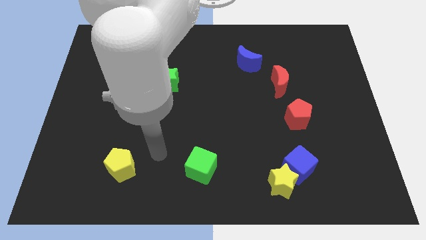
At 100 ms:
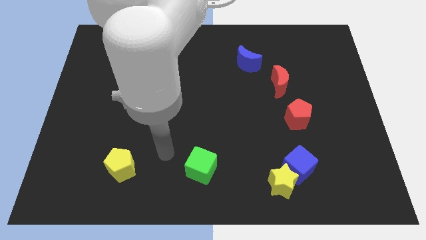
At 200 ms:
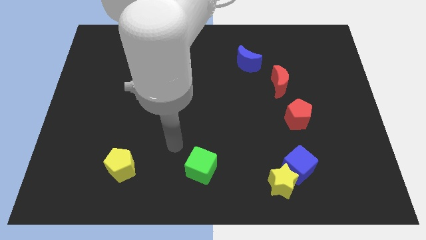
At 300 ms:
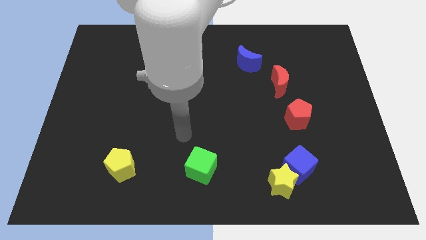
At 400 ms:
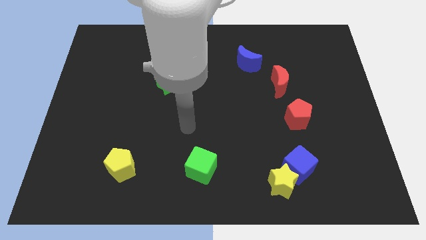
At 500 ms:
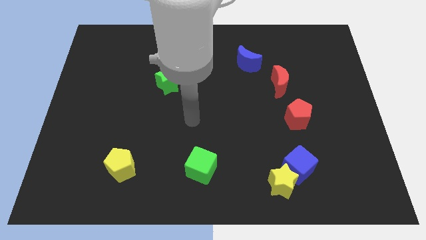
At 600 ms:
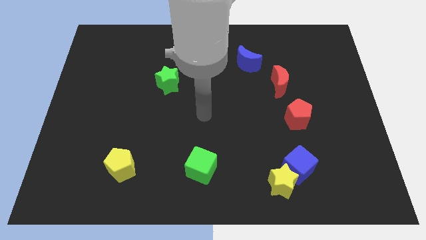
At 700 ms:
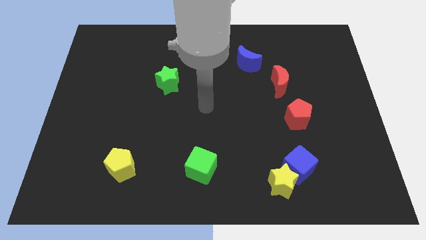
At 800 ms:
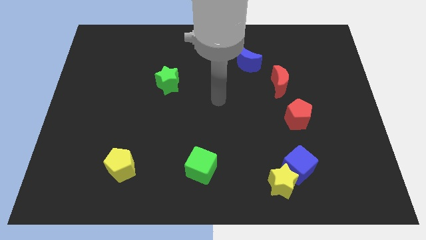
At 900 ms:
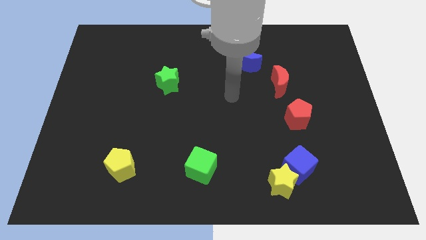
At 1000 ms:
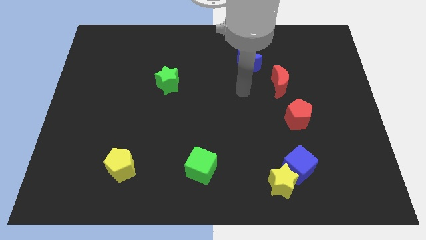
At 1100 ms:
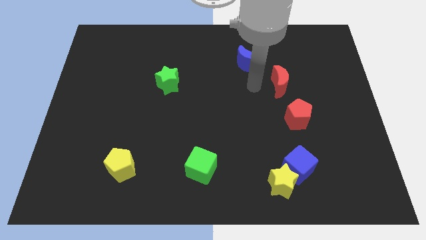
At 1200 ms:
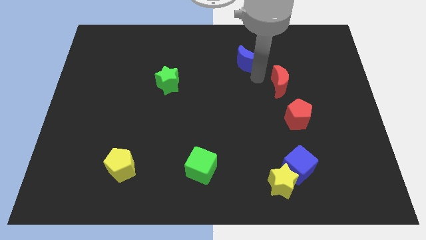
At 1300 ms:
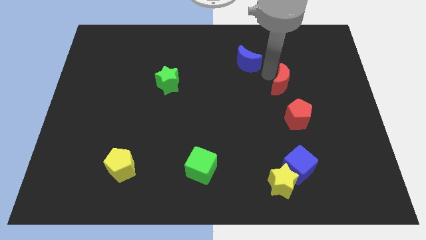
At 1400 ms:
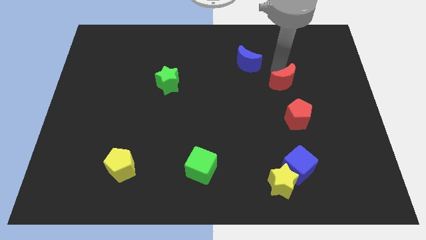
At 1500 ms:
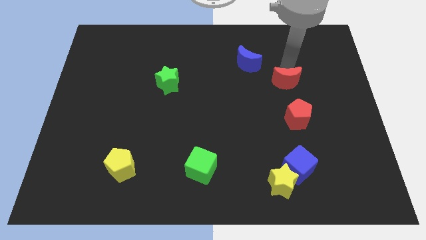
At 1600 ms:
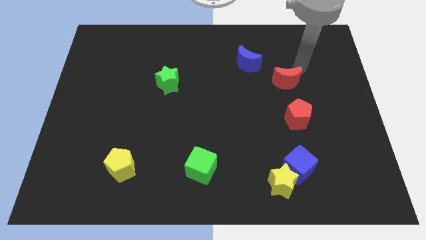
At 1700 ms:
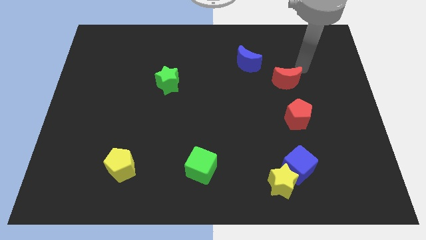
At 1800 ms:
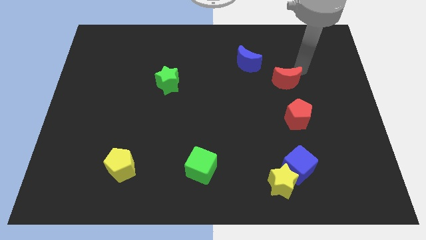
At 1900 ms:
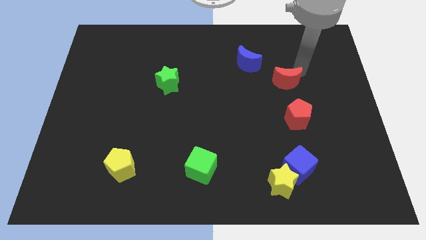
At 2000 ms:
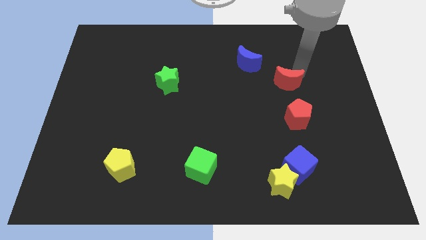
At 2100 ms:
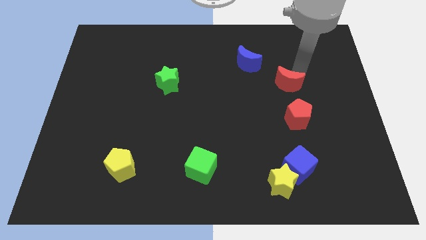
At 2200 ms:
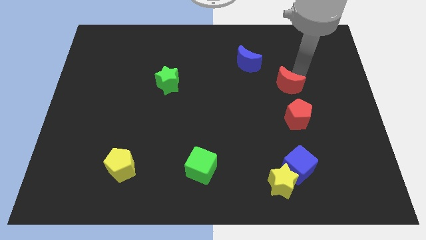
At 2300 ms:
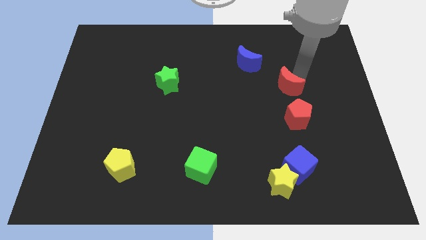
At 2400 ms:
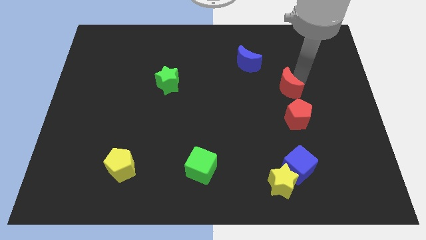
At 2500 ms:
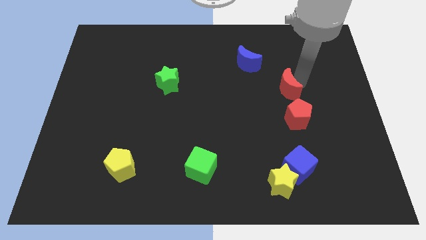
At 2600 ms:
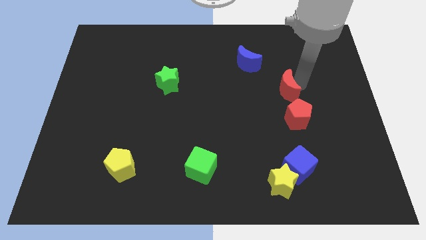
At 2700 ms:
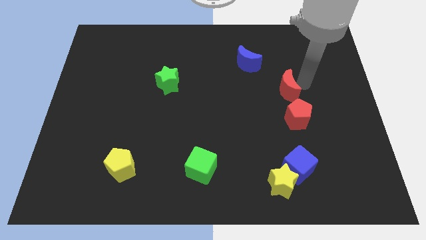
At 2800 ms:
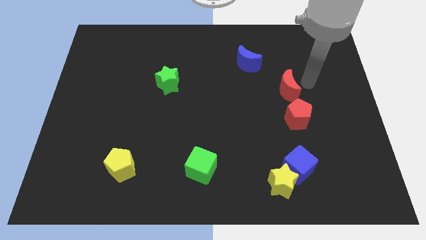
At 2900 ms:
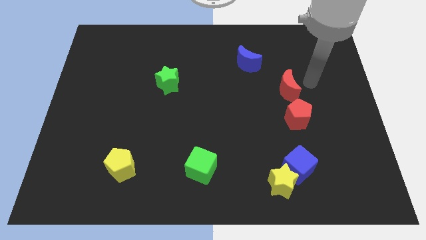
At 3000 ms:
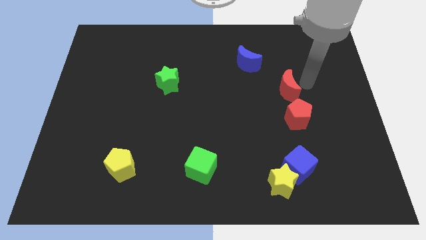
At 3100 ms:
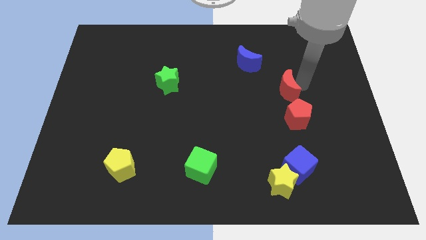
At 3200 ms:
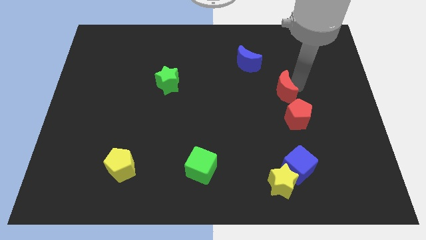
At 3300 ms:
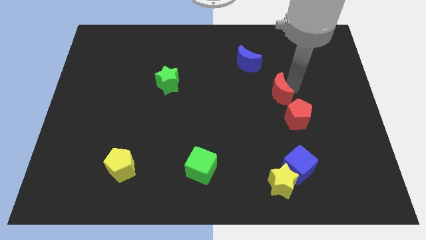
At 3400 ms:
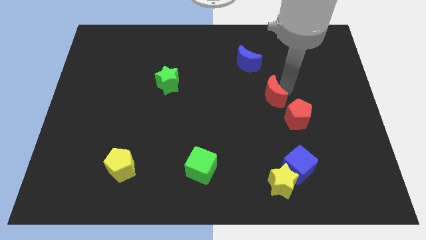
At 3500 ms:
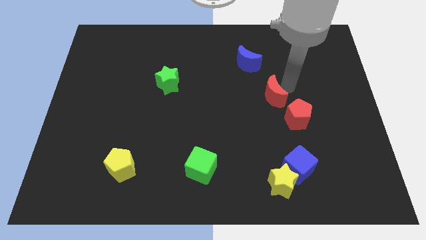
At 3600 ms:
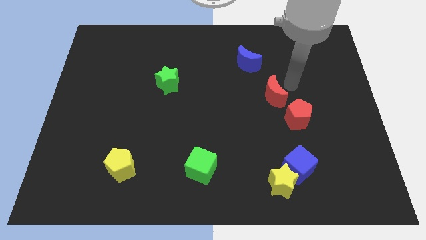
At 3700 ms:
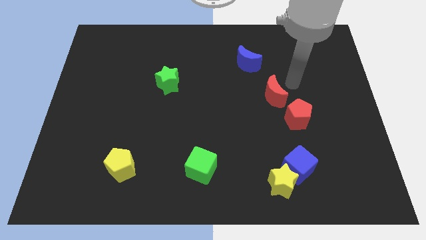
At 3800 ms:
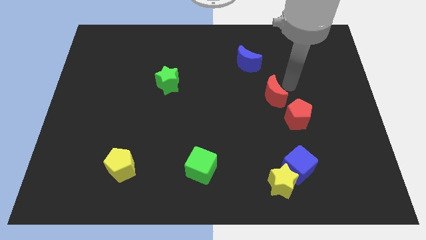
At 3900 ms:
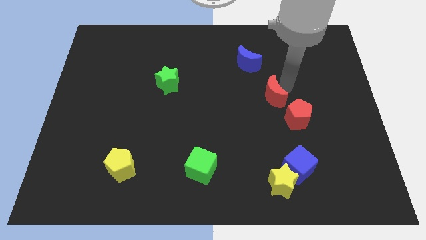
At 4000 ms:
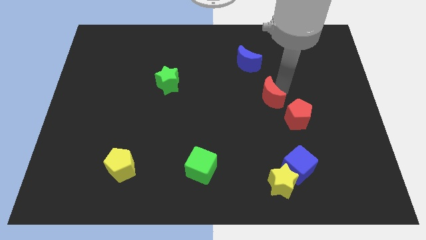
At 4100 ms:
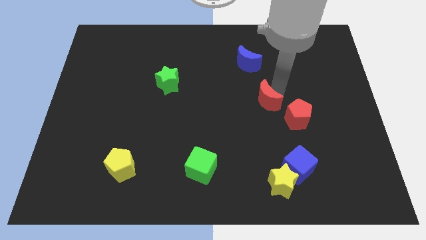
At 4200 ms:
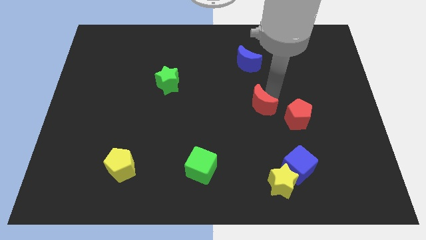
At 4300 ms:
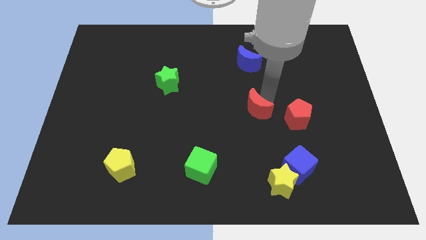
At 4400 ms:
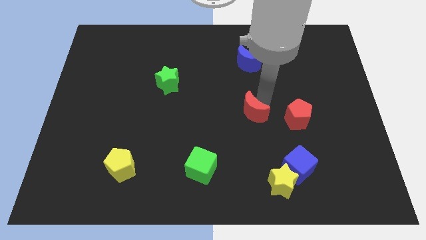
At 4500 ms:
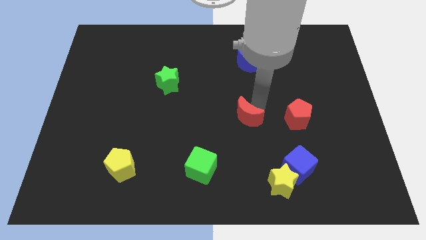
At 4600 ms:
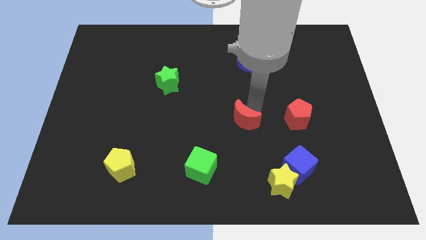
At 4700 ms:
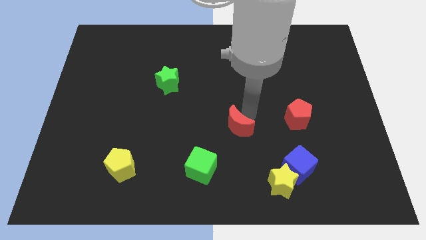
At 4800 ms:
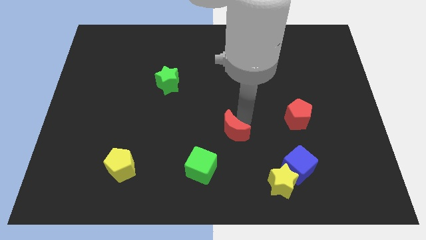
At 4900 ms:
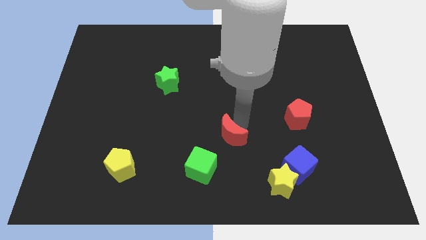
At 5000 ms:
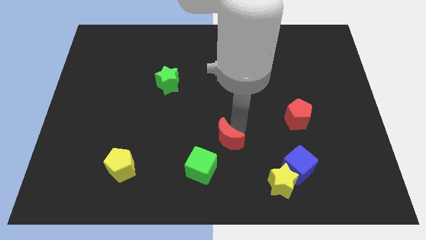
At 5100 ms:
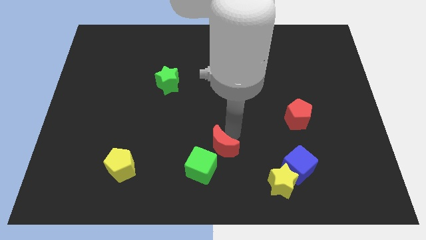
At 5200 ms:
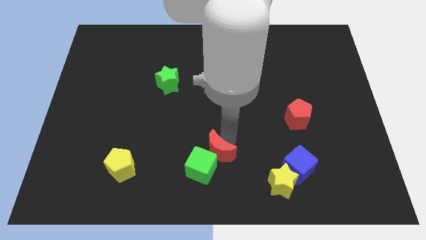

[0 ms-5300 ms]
move the red moon towards the green cube

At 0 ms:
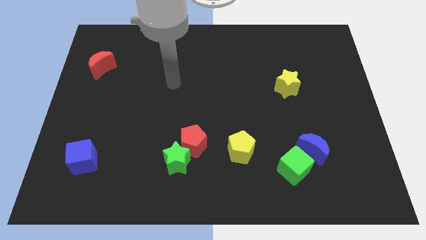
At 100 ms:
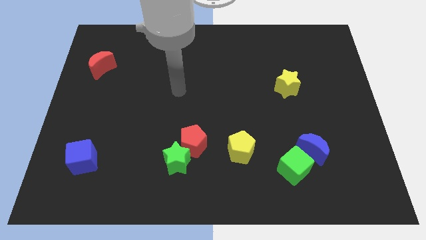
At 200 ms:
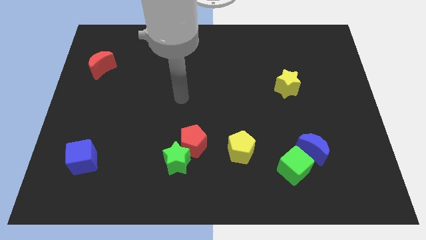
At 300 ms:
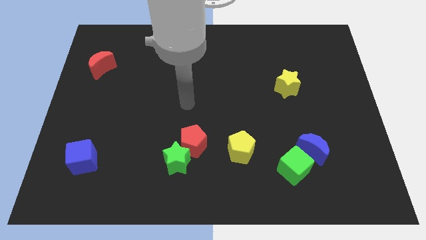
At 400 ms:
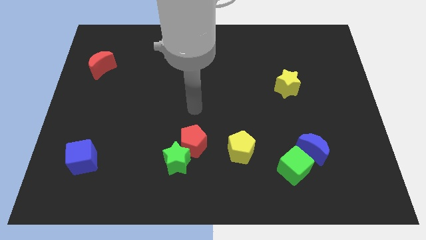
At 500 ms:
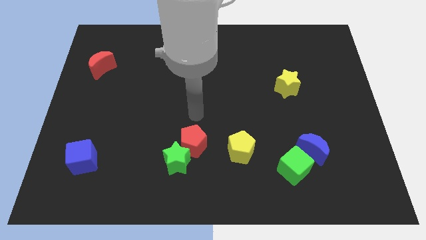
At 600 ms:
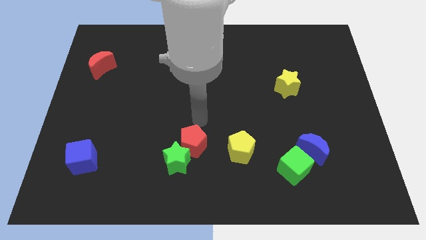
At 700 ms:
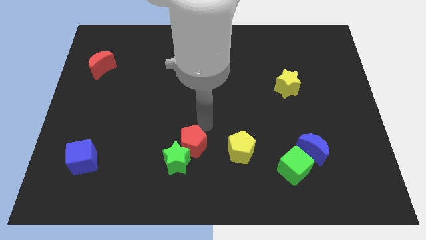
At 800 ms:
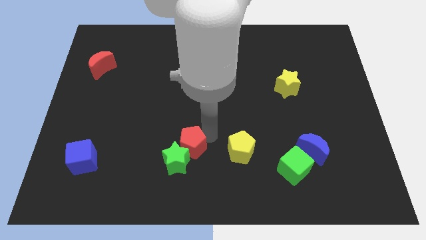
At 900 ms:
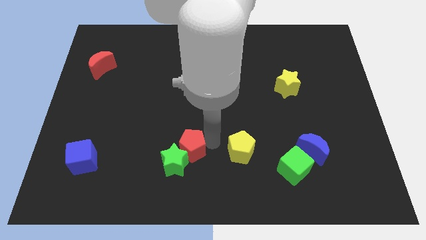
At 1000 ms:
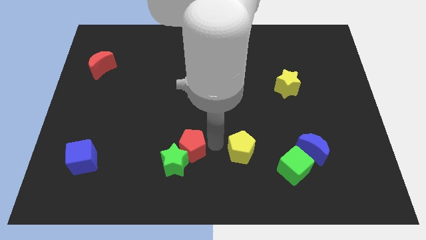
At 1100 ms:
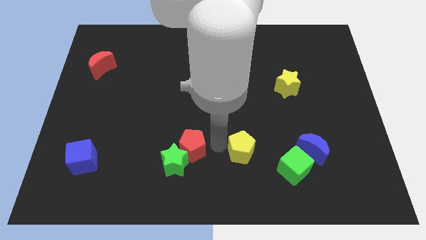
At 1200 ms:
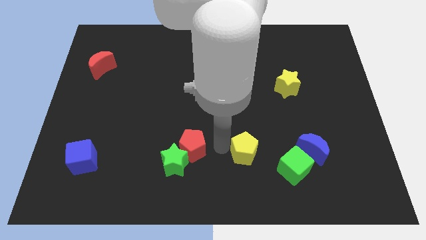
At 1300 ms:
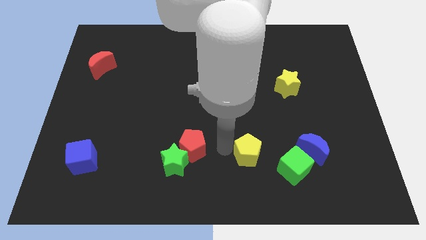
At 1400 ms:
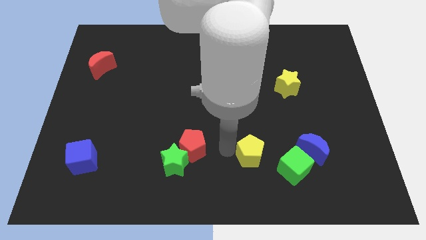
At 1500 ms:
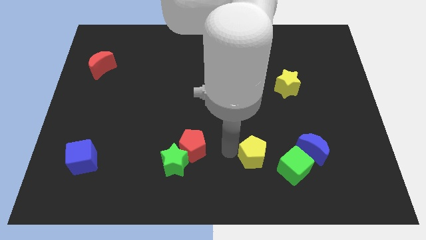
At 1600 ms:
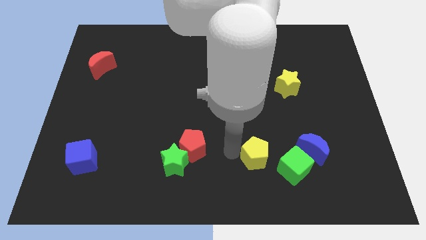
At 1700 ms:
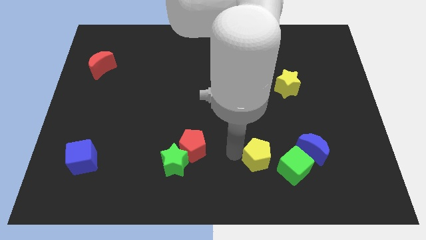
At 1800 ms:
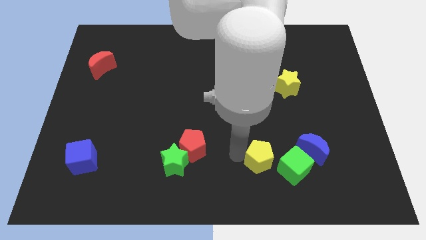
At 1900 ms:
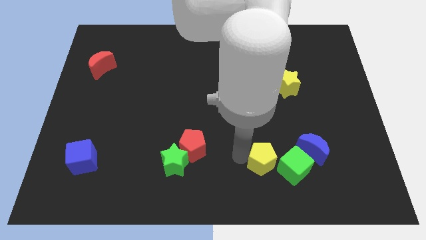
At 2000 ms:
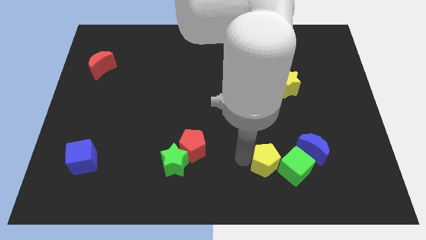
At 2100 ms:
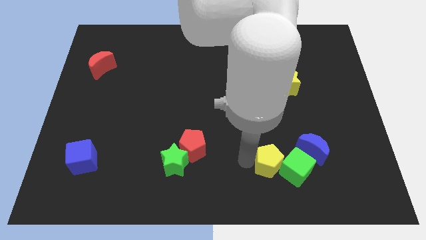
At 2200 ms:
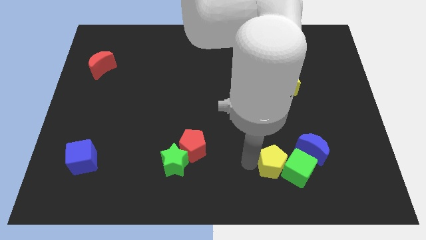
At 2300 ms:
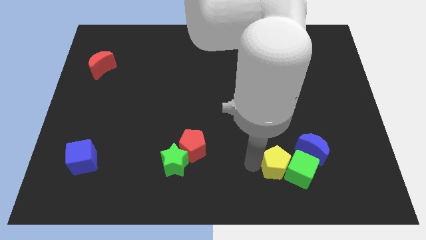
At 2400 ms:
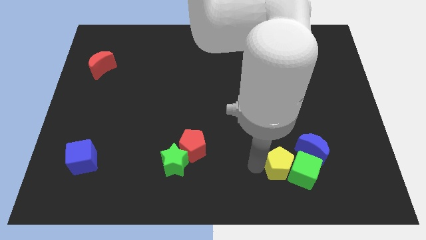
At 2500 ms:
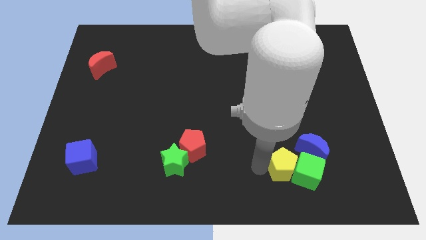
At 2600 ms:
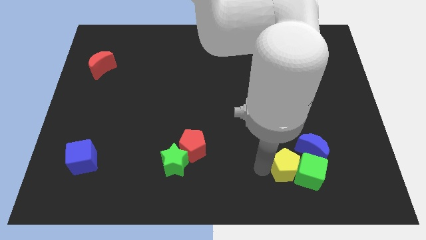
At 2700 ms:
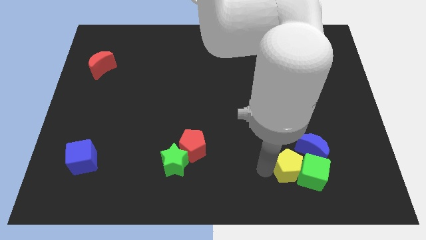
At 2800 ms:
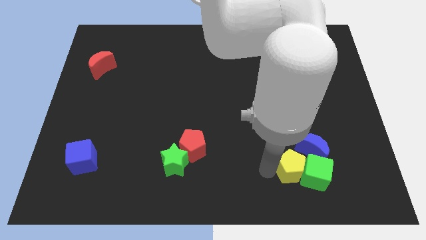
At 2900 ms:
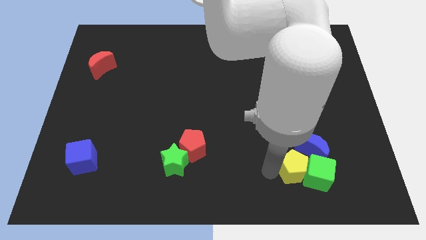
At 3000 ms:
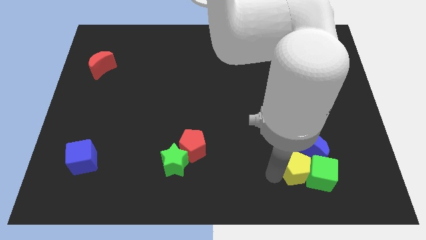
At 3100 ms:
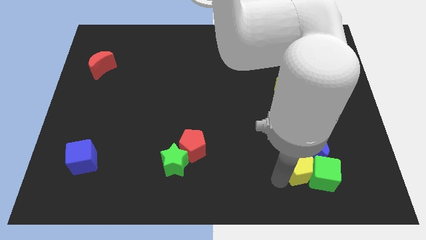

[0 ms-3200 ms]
move the yellow pentagon close to the blue moon
